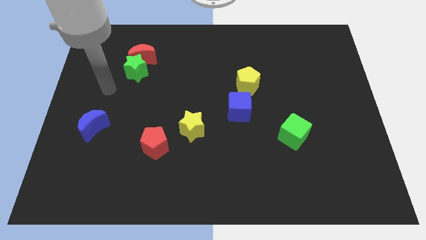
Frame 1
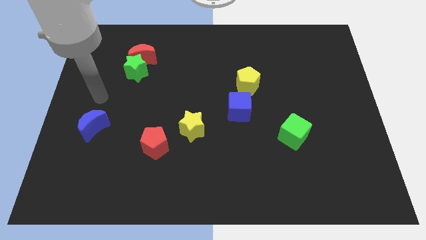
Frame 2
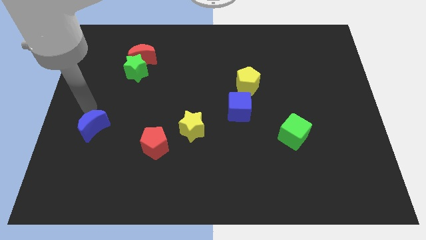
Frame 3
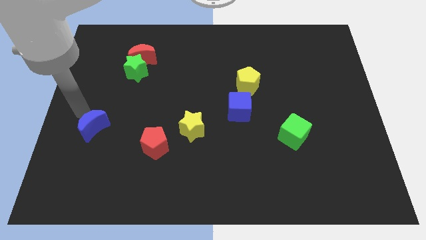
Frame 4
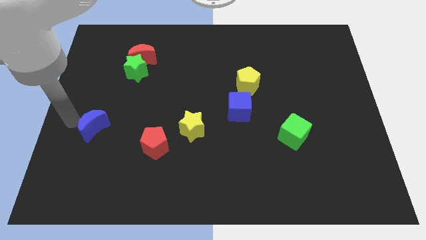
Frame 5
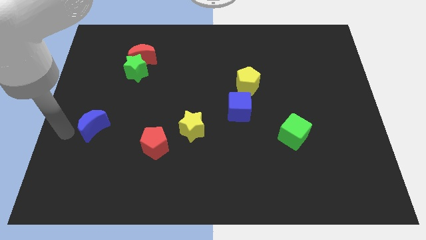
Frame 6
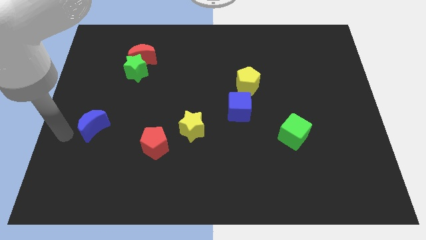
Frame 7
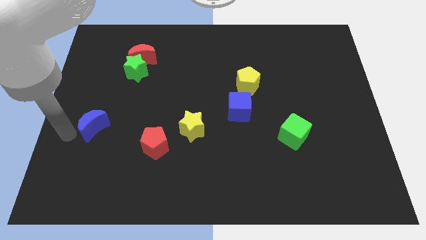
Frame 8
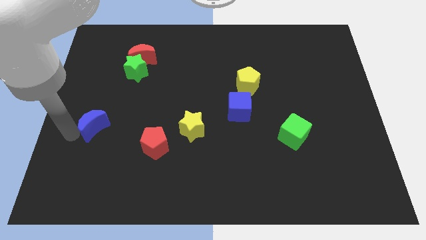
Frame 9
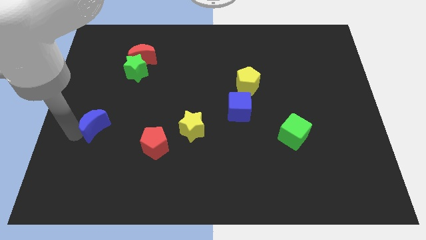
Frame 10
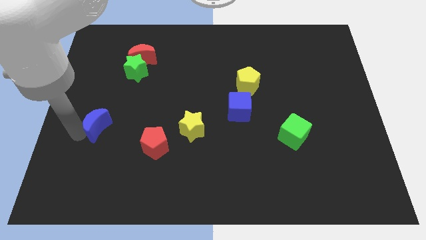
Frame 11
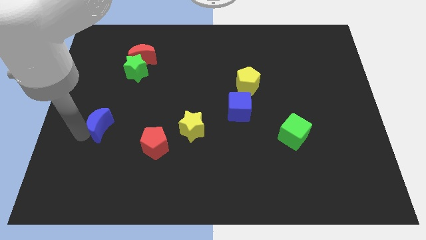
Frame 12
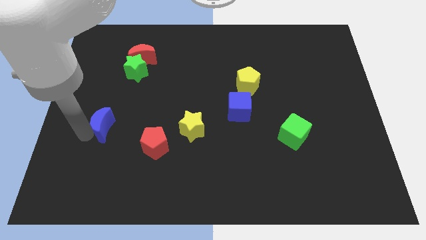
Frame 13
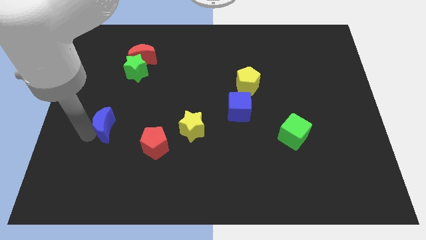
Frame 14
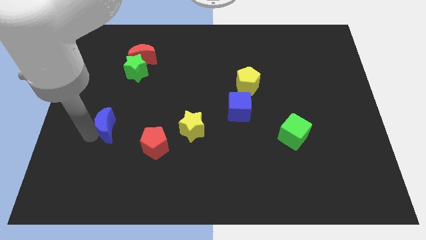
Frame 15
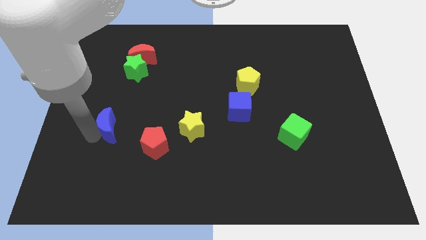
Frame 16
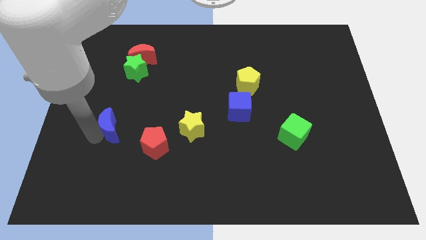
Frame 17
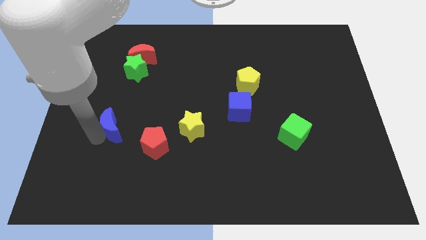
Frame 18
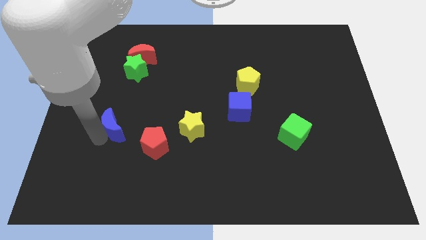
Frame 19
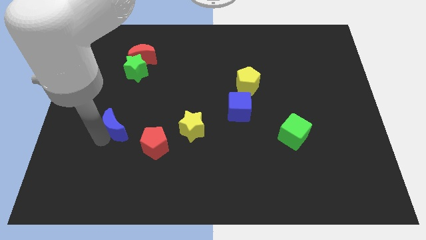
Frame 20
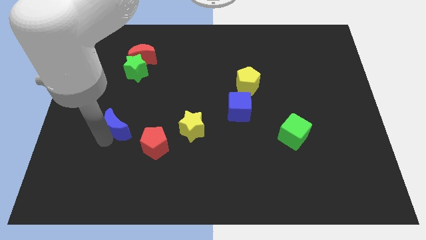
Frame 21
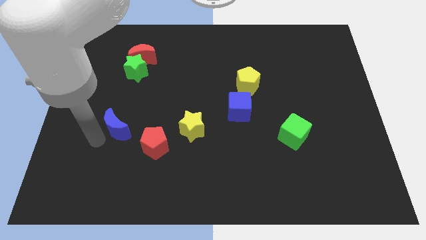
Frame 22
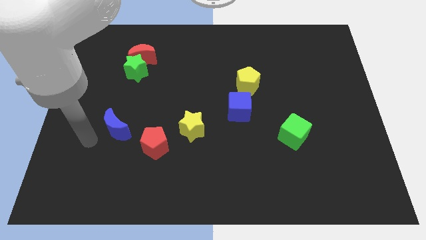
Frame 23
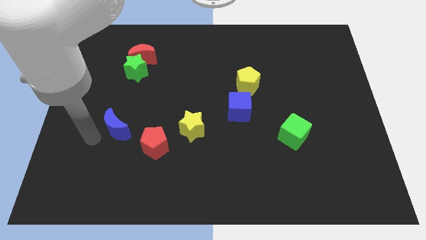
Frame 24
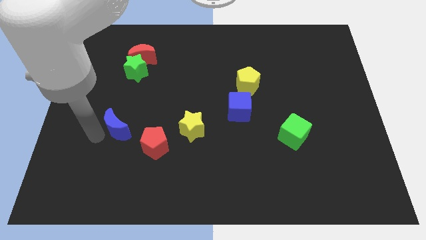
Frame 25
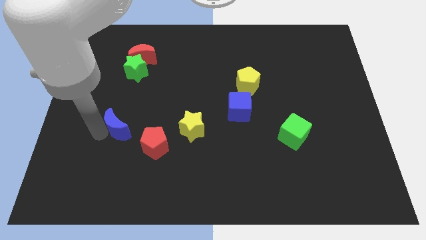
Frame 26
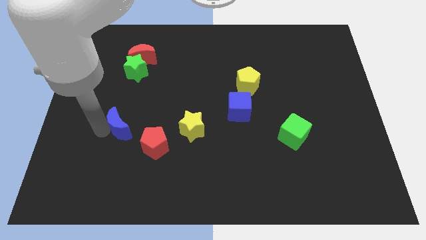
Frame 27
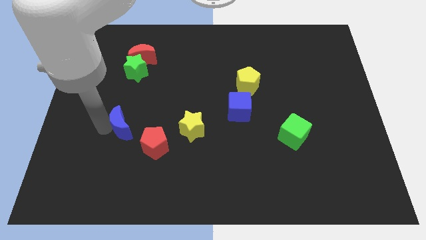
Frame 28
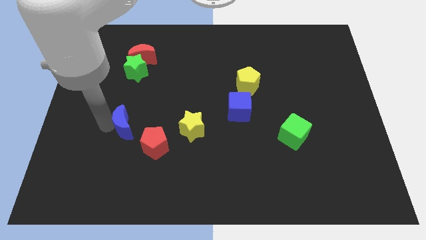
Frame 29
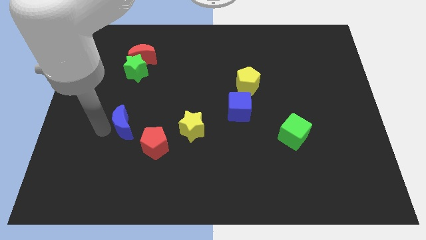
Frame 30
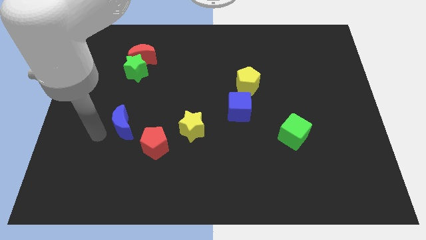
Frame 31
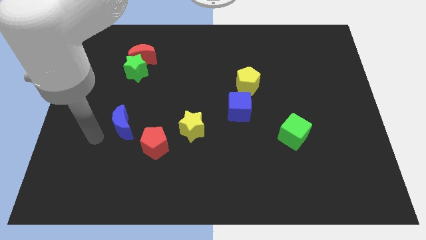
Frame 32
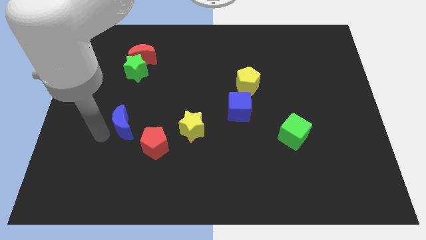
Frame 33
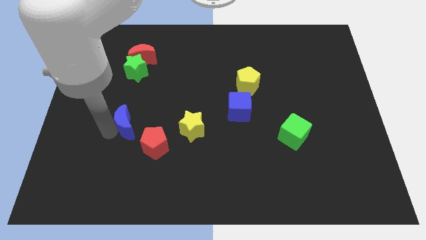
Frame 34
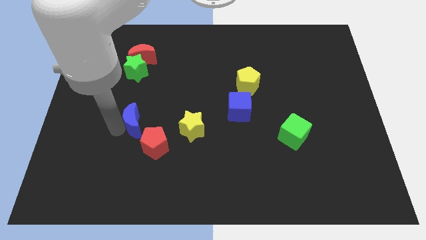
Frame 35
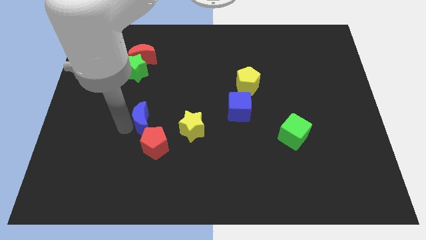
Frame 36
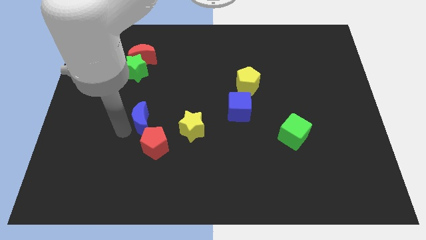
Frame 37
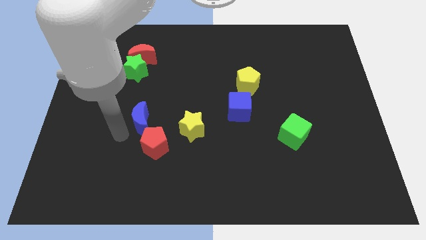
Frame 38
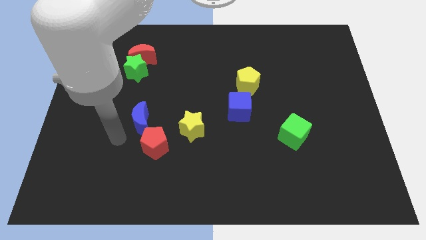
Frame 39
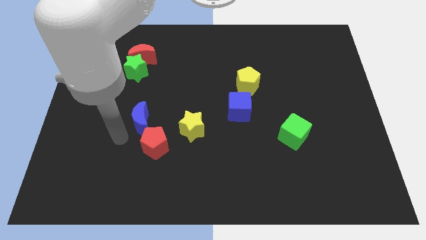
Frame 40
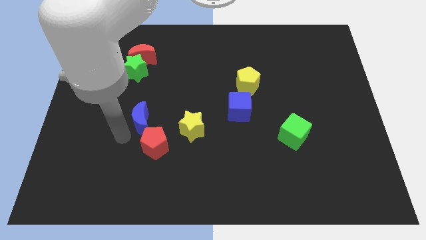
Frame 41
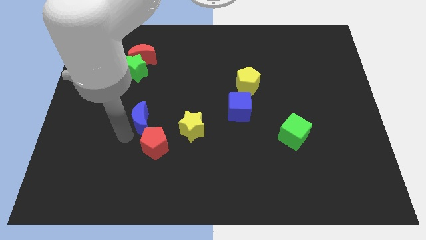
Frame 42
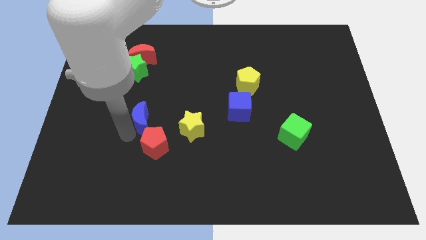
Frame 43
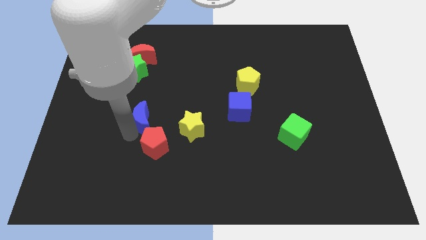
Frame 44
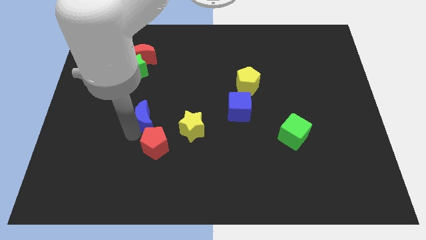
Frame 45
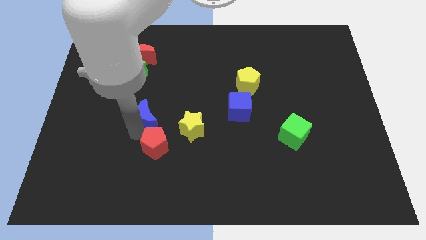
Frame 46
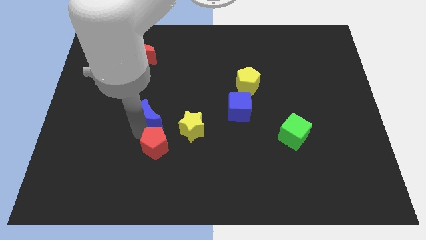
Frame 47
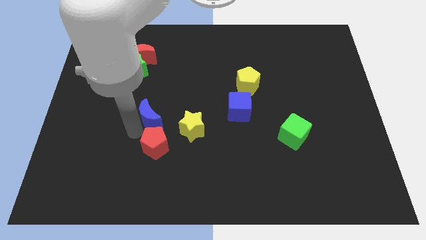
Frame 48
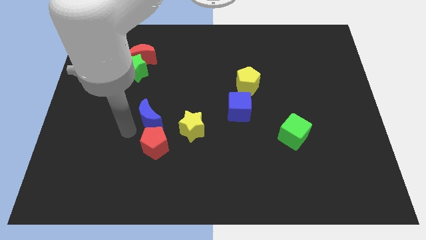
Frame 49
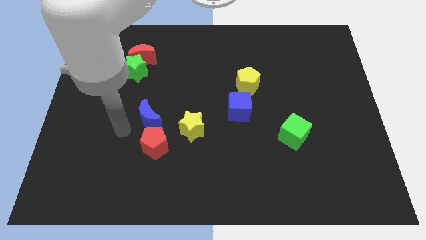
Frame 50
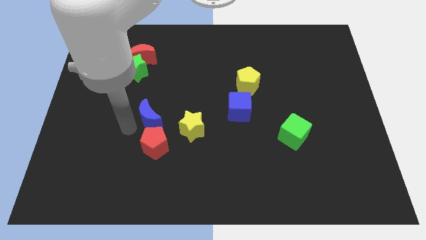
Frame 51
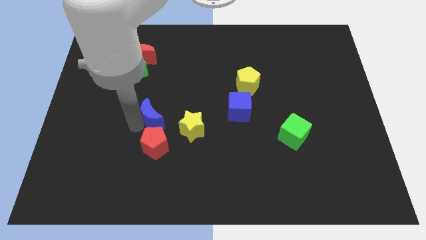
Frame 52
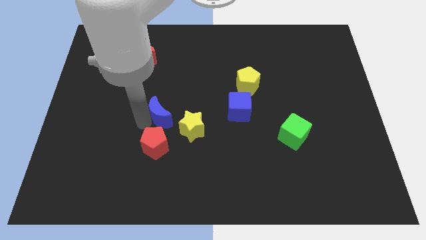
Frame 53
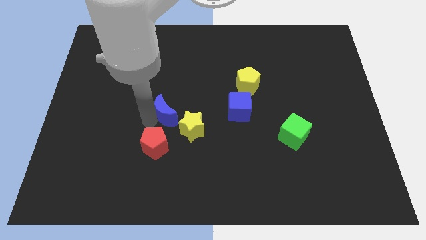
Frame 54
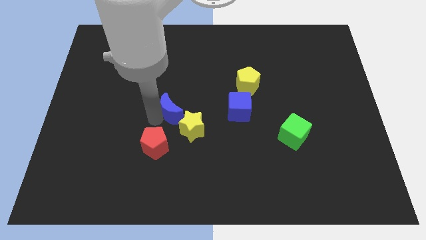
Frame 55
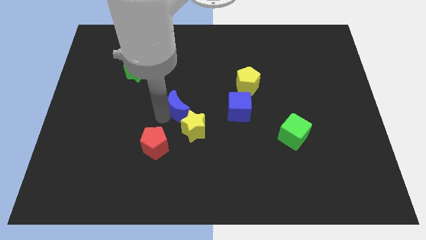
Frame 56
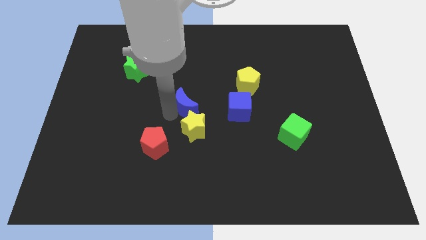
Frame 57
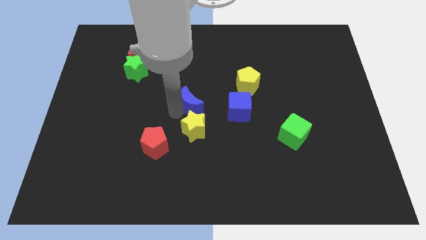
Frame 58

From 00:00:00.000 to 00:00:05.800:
slide the blue moon right

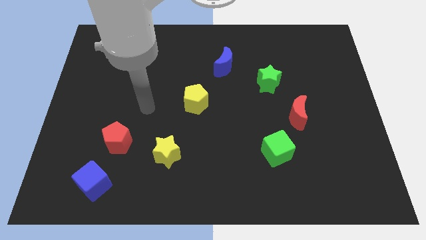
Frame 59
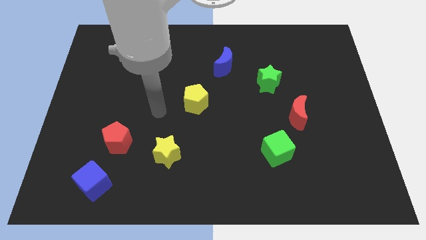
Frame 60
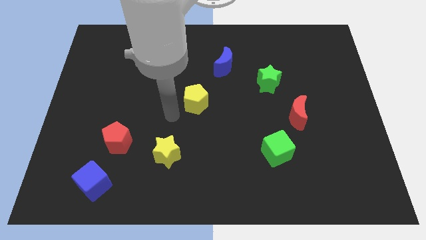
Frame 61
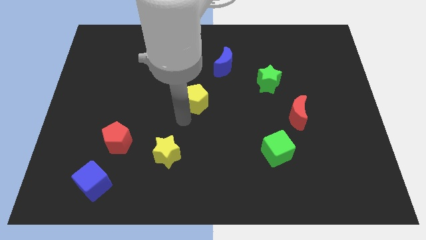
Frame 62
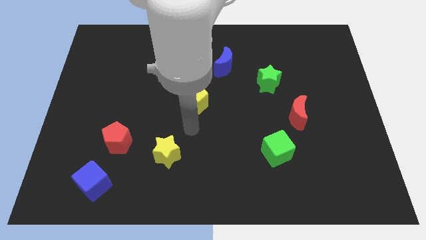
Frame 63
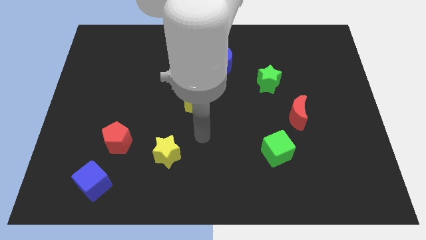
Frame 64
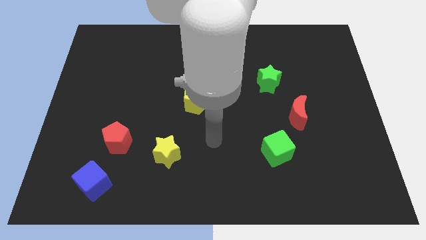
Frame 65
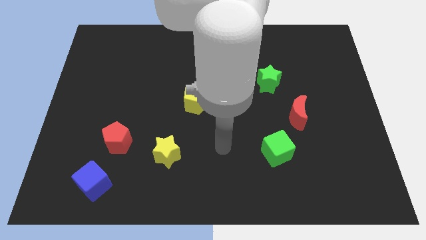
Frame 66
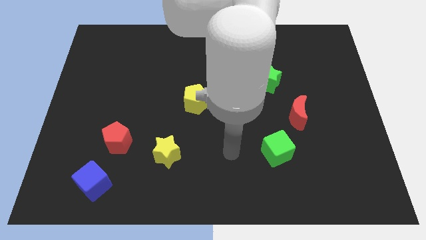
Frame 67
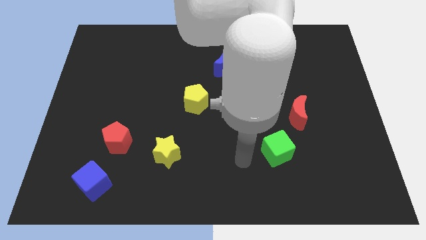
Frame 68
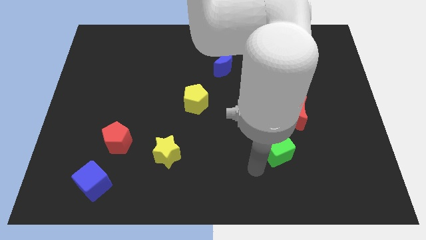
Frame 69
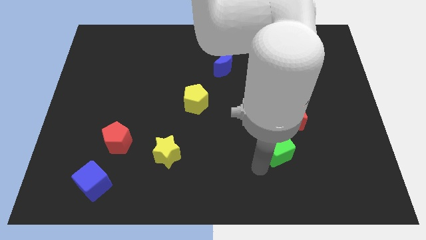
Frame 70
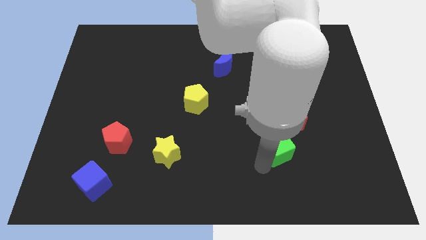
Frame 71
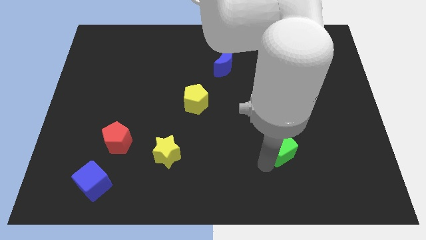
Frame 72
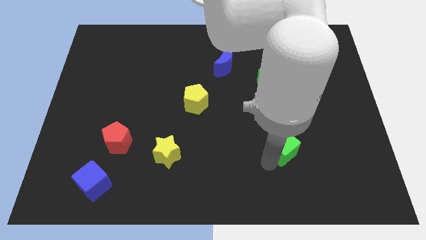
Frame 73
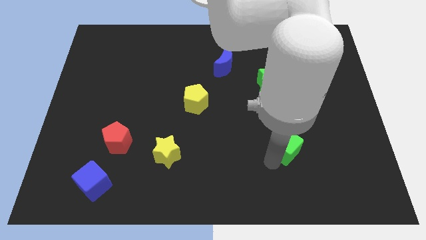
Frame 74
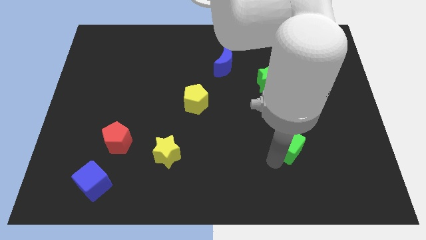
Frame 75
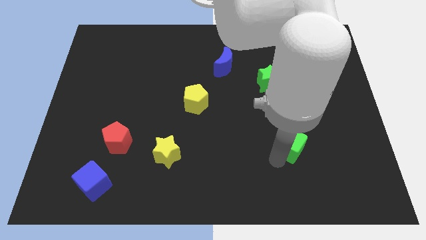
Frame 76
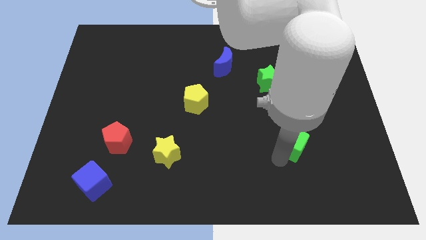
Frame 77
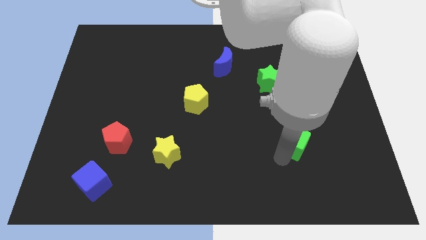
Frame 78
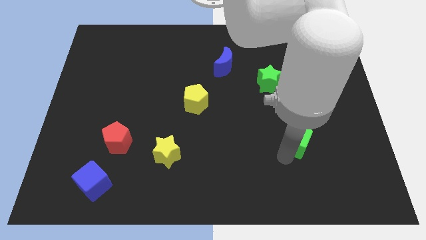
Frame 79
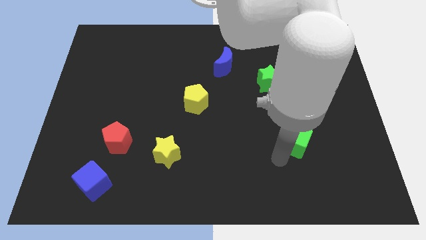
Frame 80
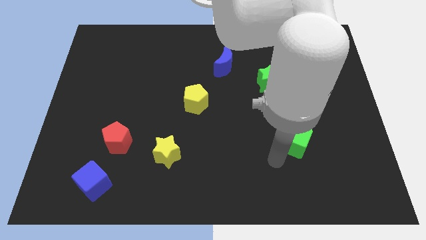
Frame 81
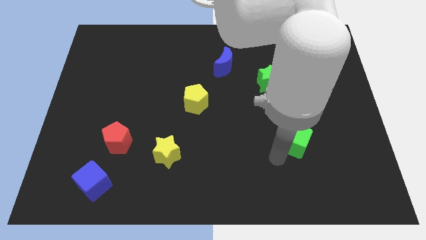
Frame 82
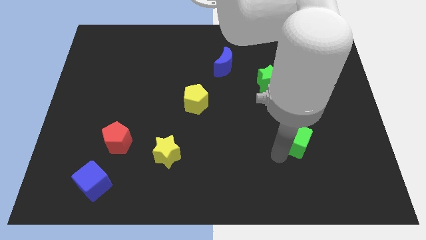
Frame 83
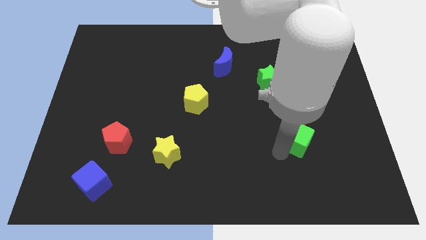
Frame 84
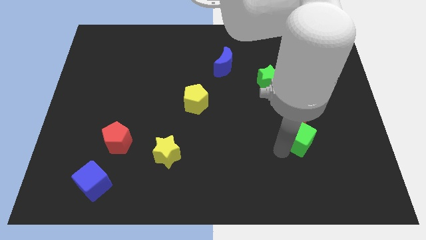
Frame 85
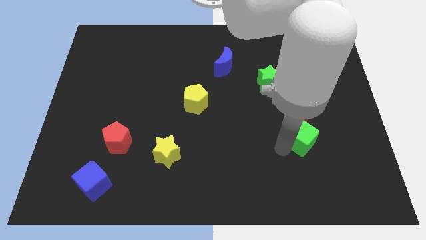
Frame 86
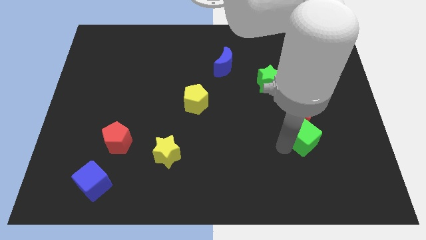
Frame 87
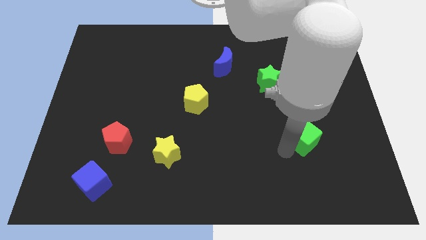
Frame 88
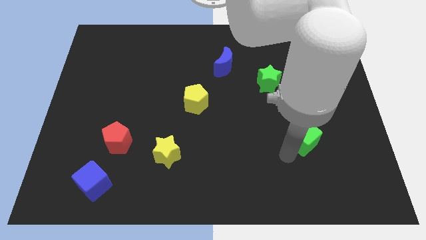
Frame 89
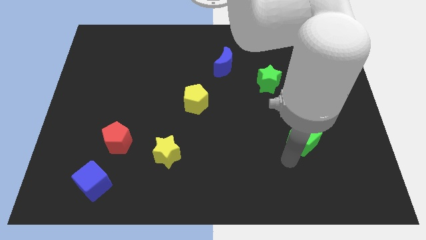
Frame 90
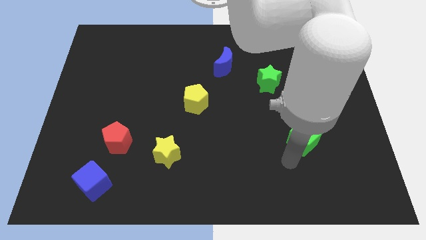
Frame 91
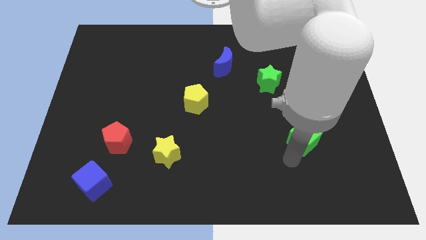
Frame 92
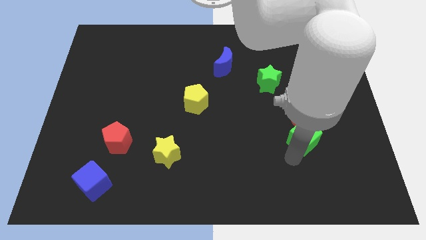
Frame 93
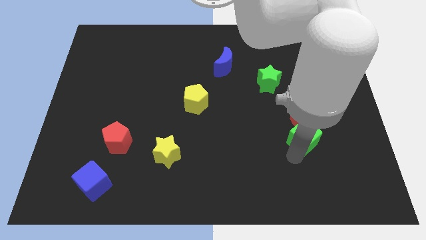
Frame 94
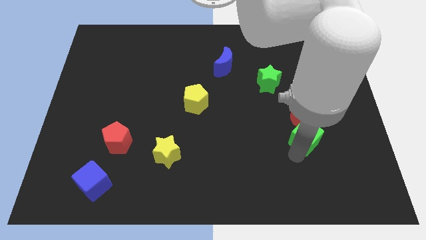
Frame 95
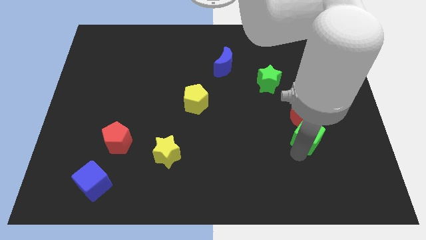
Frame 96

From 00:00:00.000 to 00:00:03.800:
slightly slide the green cube upwards and then to the right
